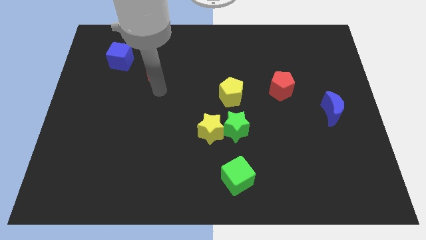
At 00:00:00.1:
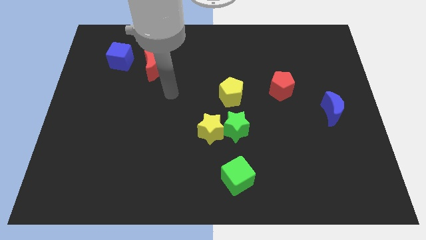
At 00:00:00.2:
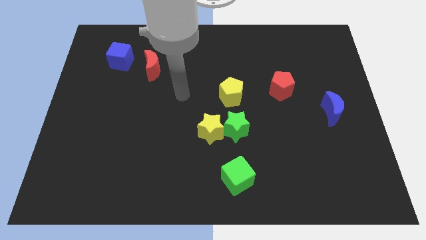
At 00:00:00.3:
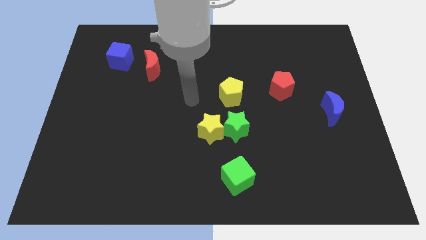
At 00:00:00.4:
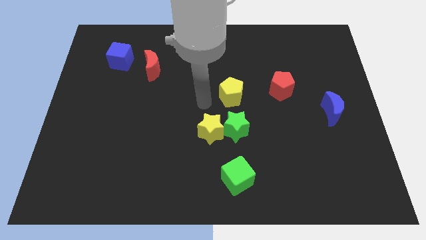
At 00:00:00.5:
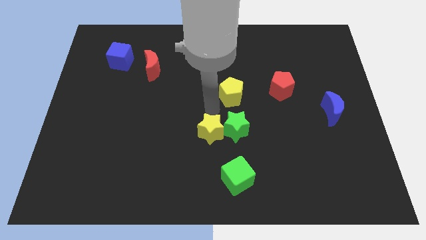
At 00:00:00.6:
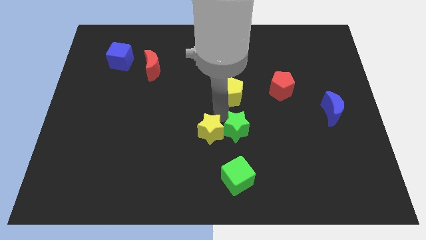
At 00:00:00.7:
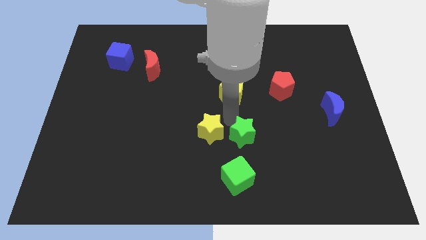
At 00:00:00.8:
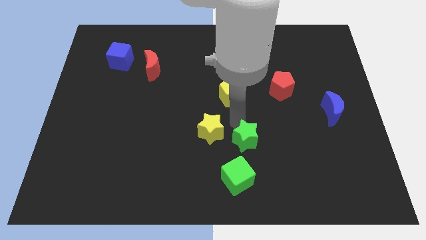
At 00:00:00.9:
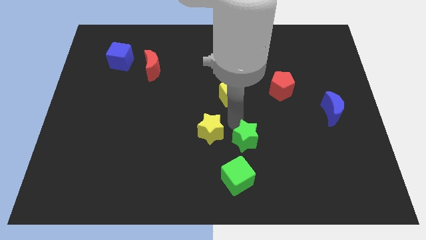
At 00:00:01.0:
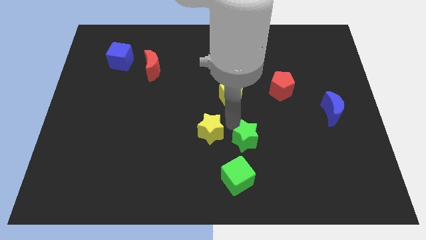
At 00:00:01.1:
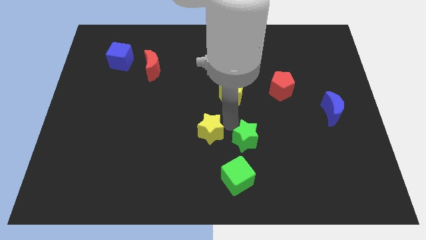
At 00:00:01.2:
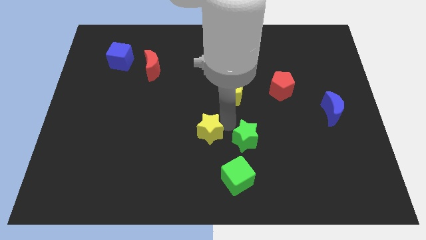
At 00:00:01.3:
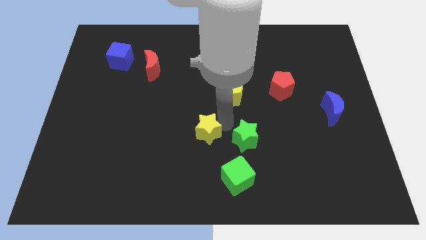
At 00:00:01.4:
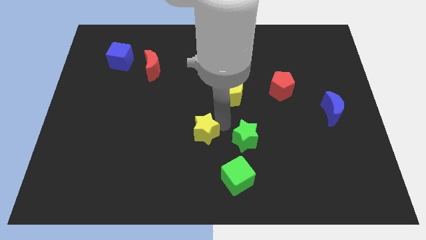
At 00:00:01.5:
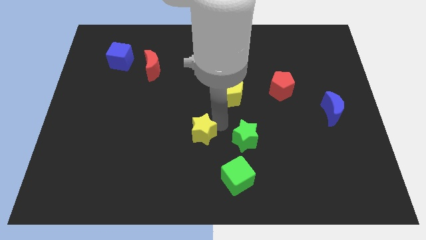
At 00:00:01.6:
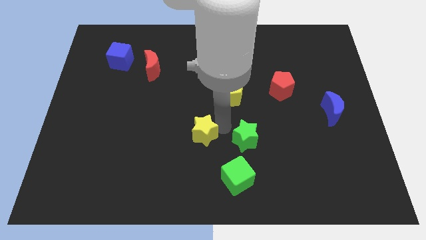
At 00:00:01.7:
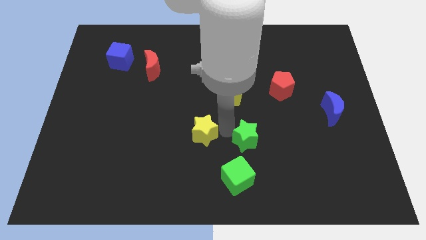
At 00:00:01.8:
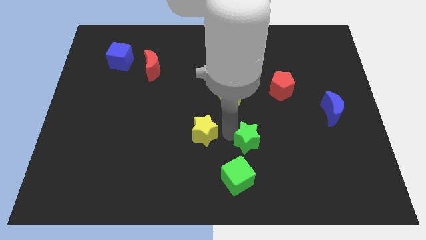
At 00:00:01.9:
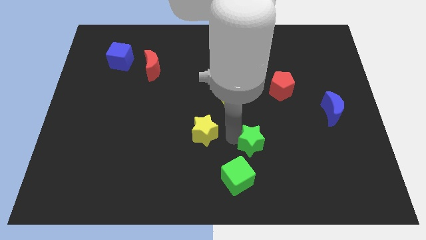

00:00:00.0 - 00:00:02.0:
move the yellow star away from the green star

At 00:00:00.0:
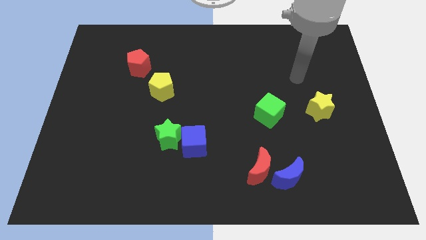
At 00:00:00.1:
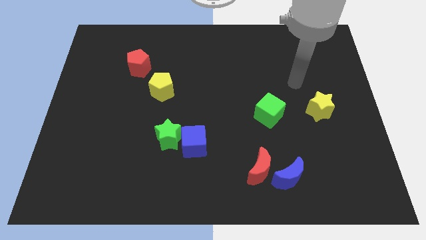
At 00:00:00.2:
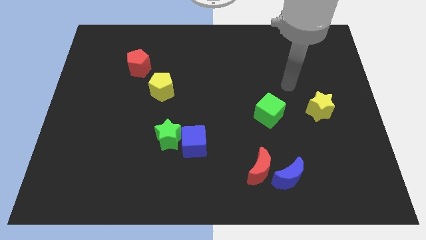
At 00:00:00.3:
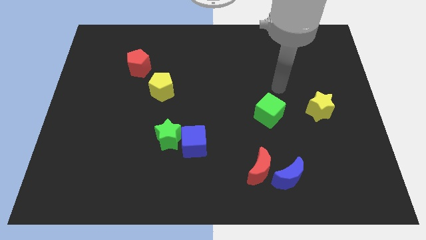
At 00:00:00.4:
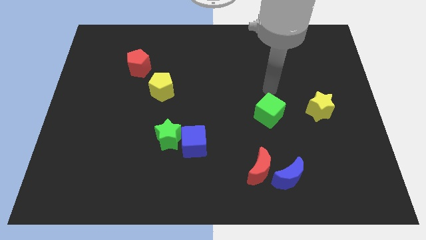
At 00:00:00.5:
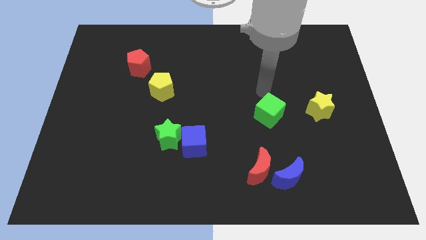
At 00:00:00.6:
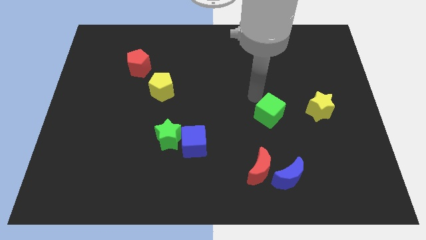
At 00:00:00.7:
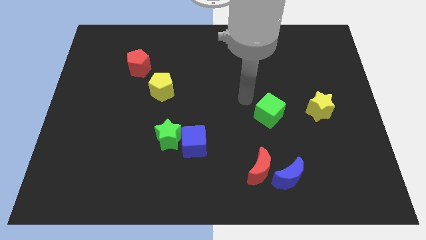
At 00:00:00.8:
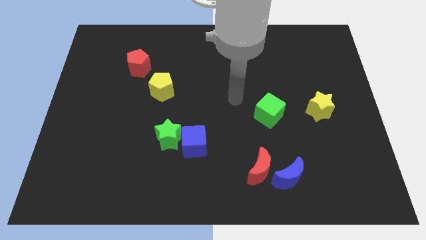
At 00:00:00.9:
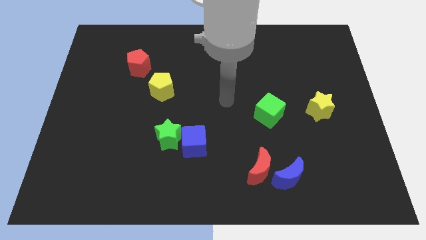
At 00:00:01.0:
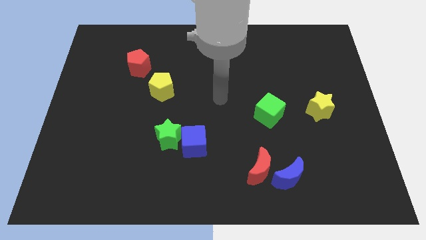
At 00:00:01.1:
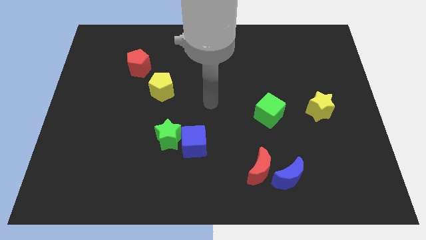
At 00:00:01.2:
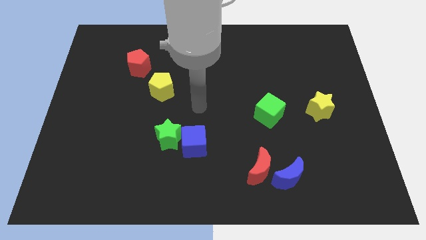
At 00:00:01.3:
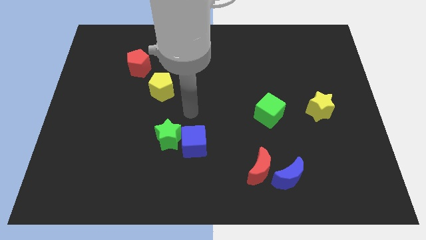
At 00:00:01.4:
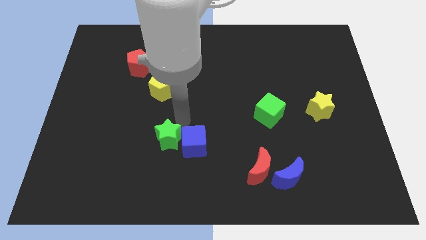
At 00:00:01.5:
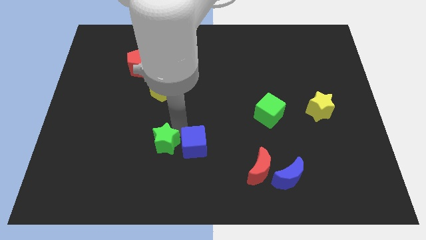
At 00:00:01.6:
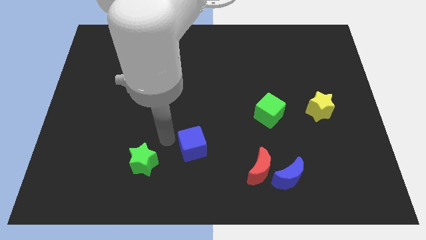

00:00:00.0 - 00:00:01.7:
separate the blue cube from the green star

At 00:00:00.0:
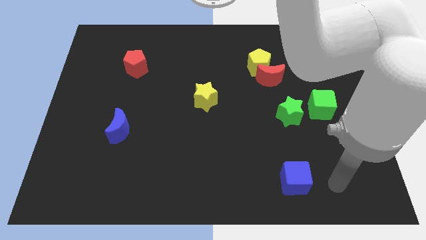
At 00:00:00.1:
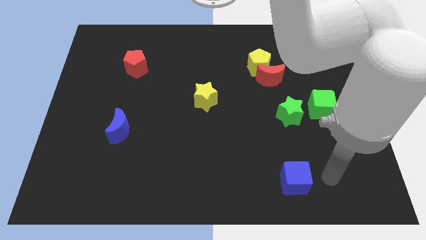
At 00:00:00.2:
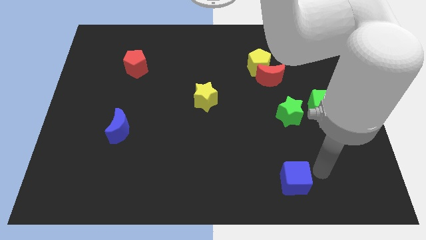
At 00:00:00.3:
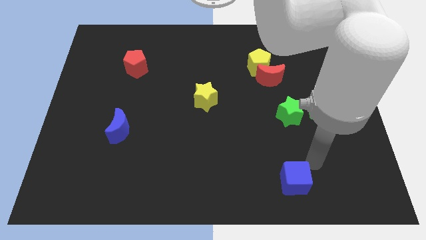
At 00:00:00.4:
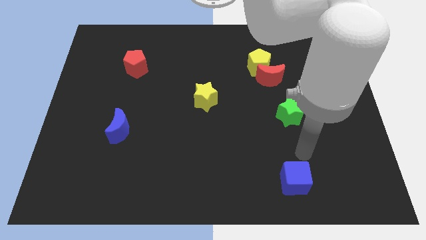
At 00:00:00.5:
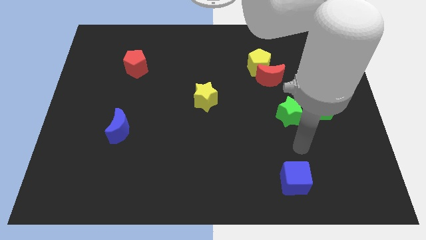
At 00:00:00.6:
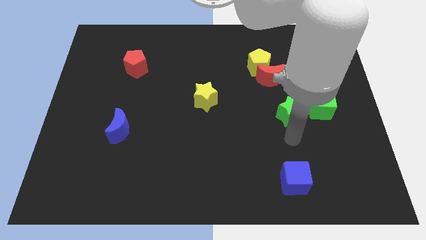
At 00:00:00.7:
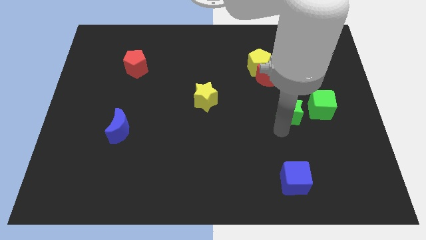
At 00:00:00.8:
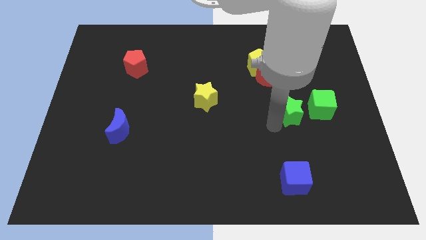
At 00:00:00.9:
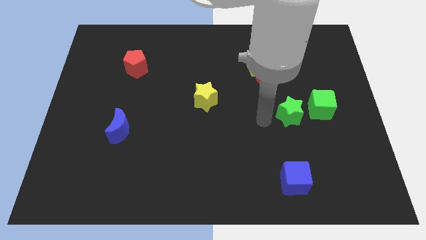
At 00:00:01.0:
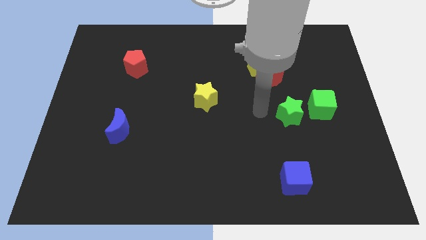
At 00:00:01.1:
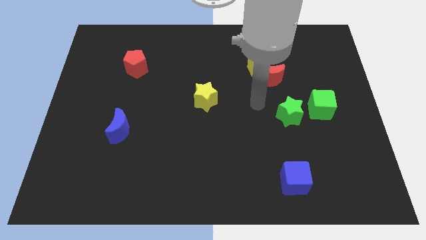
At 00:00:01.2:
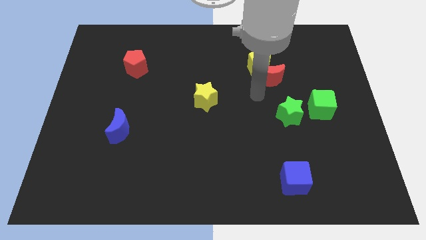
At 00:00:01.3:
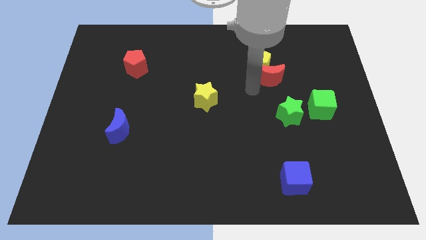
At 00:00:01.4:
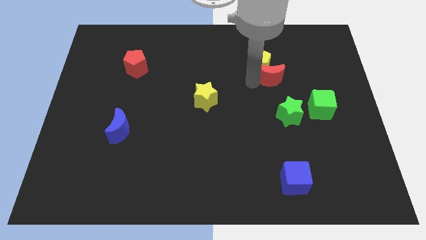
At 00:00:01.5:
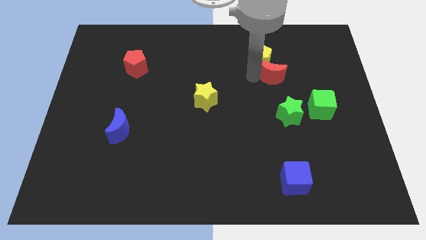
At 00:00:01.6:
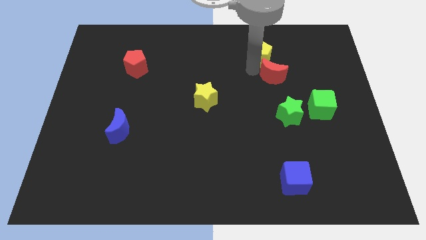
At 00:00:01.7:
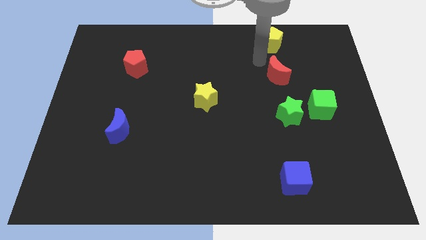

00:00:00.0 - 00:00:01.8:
separate the red moon from the yellow pentagon

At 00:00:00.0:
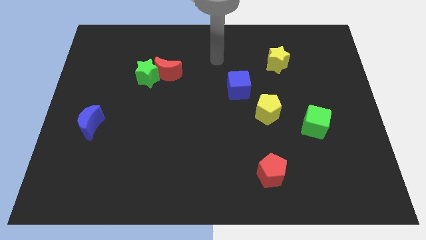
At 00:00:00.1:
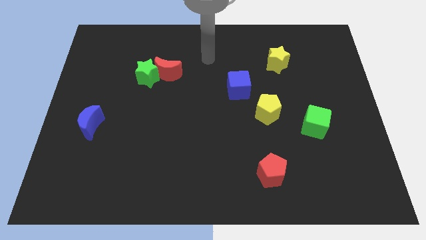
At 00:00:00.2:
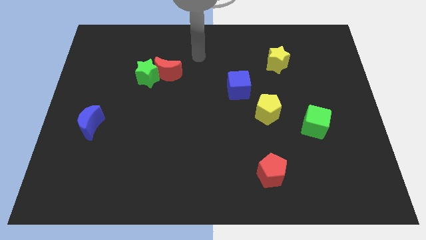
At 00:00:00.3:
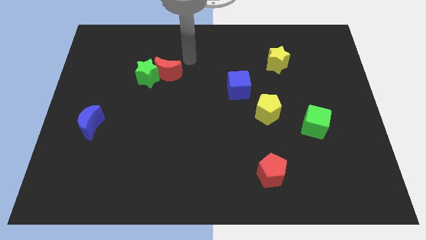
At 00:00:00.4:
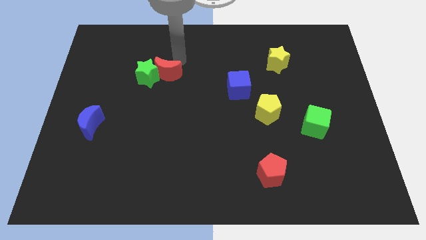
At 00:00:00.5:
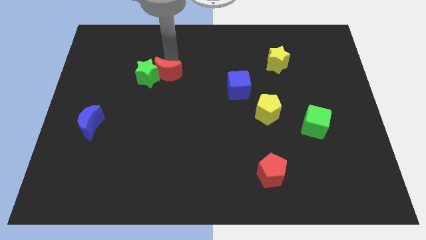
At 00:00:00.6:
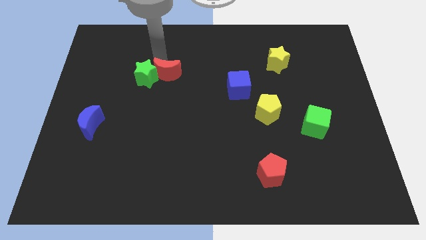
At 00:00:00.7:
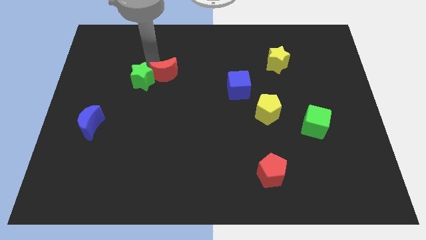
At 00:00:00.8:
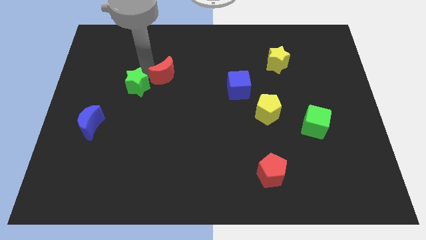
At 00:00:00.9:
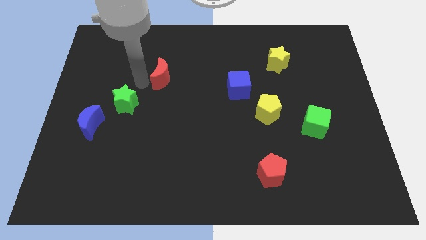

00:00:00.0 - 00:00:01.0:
move the red moon away from the green star

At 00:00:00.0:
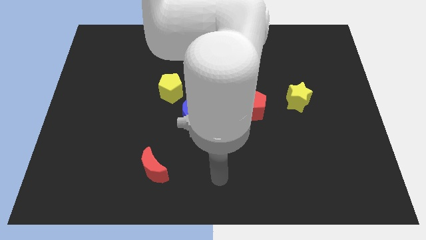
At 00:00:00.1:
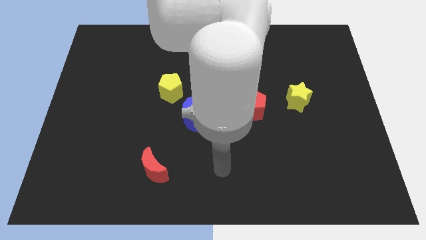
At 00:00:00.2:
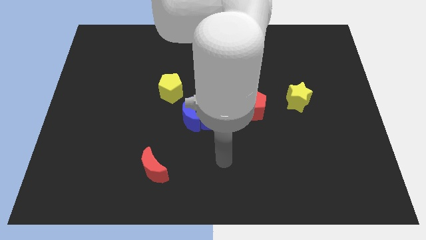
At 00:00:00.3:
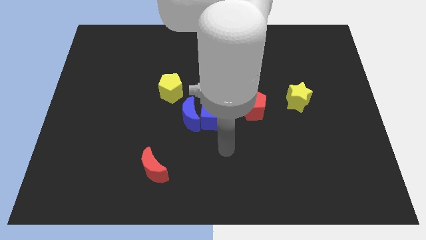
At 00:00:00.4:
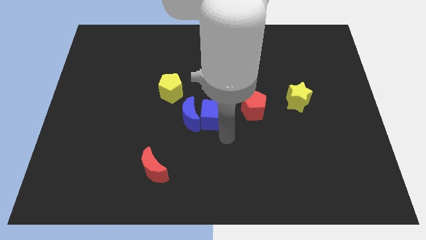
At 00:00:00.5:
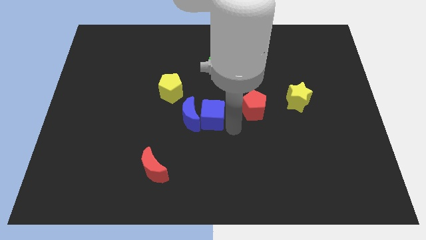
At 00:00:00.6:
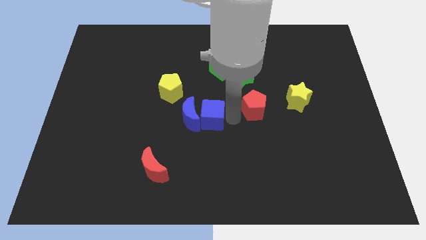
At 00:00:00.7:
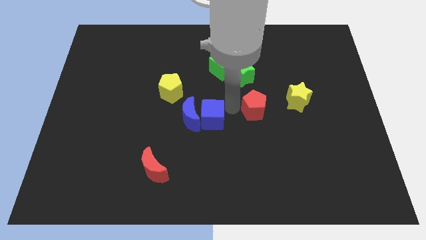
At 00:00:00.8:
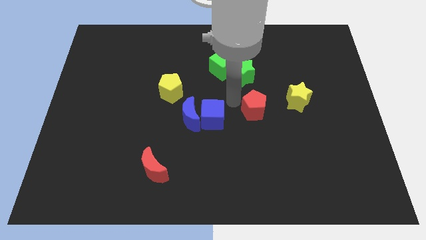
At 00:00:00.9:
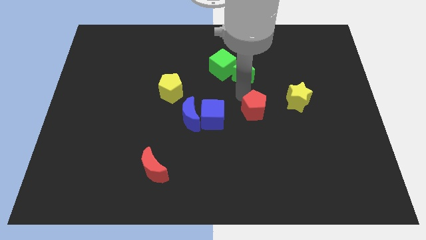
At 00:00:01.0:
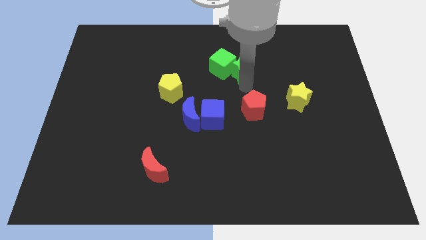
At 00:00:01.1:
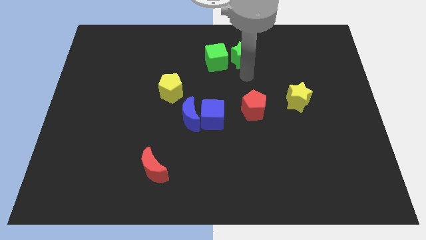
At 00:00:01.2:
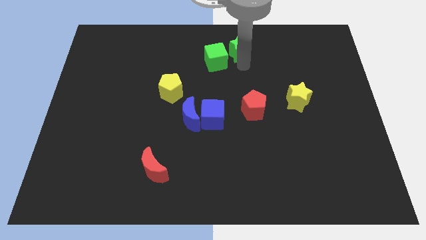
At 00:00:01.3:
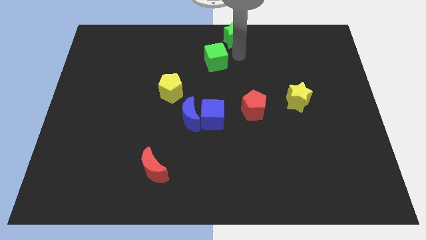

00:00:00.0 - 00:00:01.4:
separate the green cube from the green star

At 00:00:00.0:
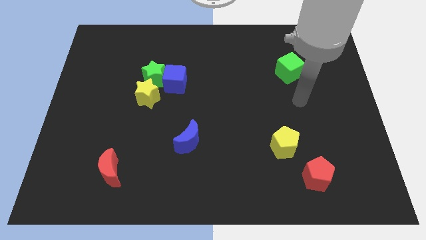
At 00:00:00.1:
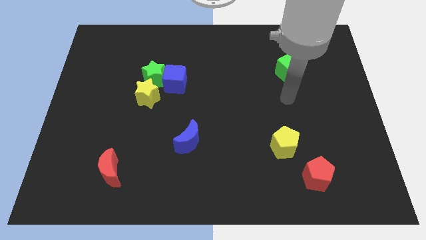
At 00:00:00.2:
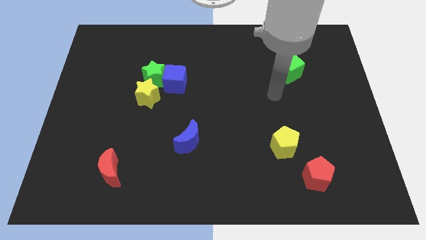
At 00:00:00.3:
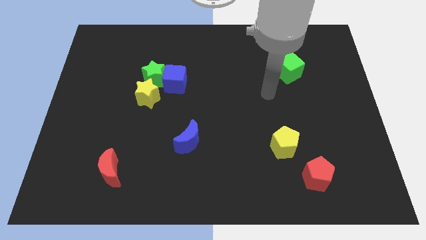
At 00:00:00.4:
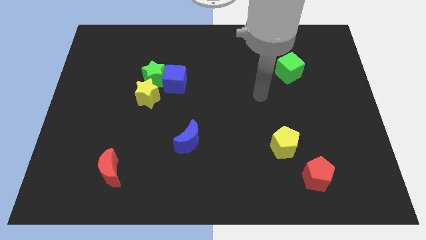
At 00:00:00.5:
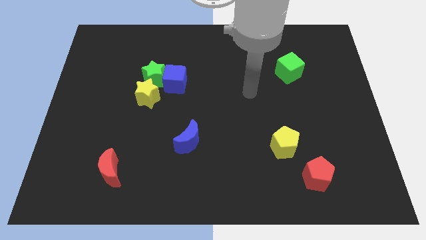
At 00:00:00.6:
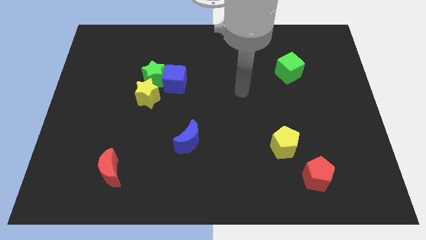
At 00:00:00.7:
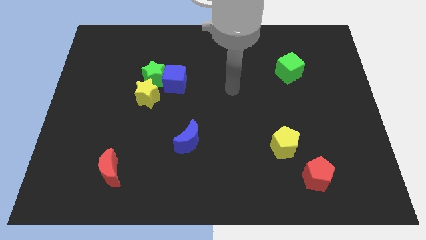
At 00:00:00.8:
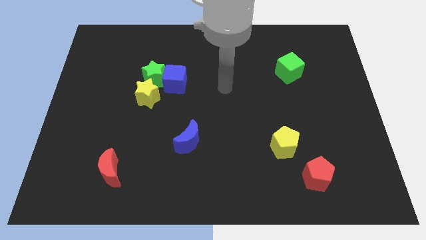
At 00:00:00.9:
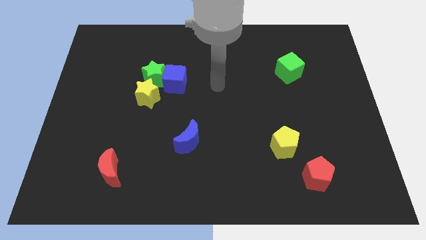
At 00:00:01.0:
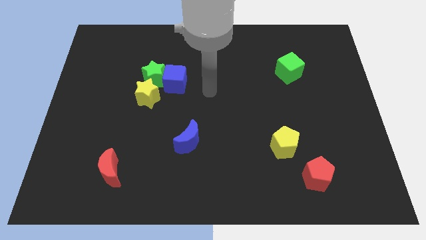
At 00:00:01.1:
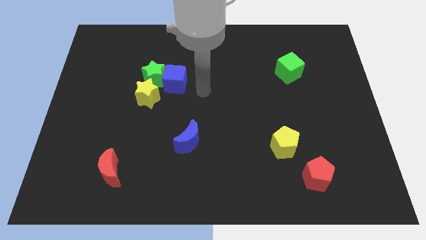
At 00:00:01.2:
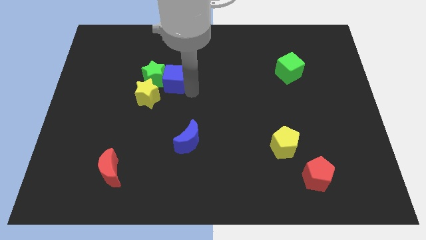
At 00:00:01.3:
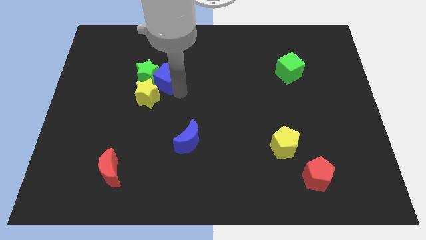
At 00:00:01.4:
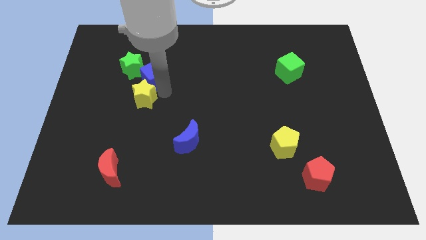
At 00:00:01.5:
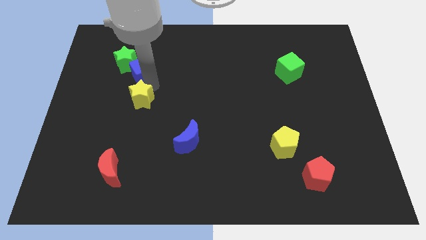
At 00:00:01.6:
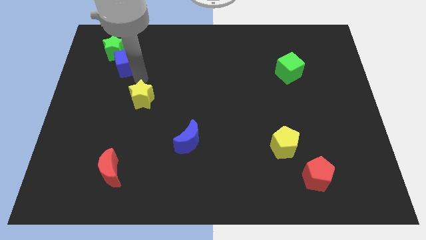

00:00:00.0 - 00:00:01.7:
move the green star away from the blue cube and yellow star
